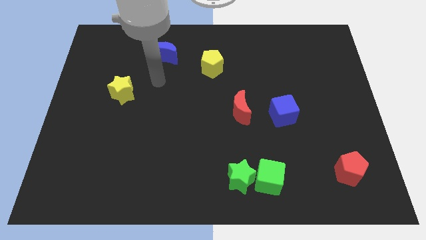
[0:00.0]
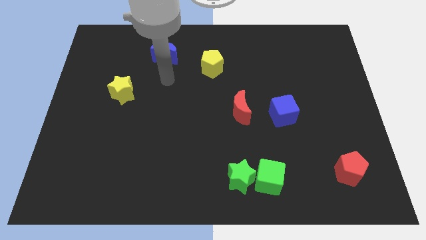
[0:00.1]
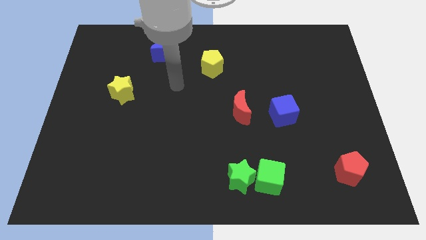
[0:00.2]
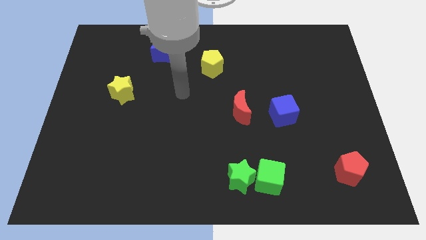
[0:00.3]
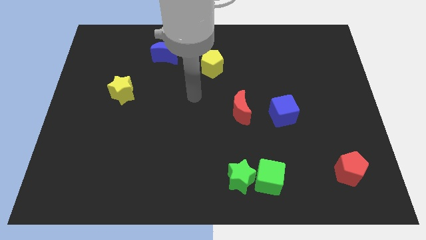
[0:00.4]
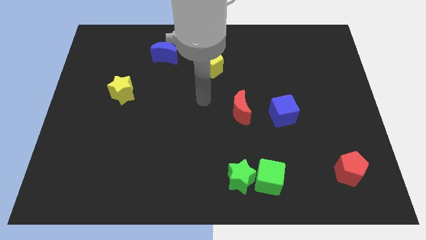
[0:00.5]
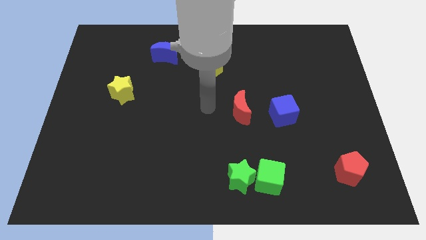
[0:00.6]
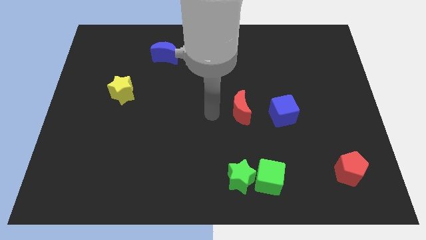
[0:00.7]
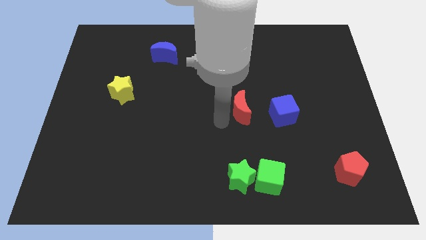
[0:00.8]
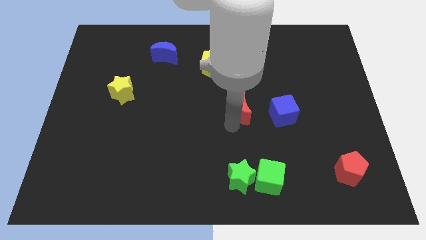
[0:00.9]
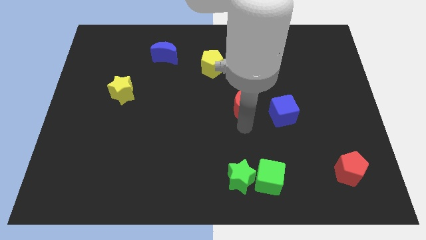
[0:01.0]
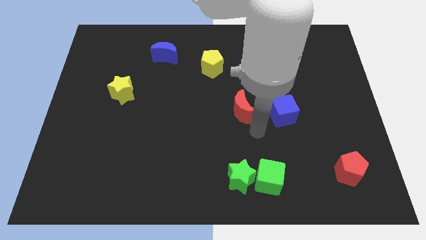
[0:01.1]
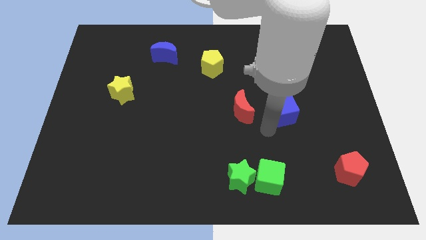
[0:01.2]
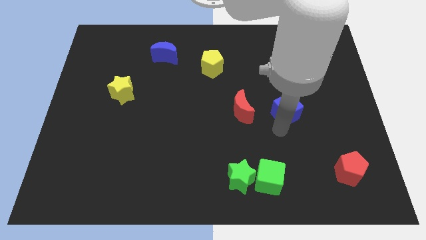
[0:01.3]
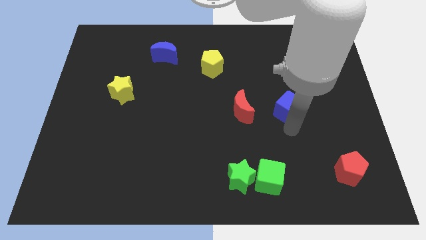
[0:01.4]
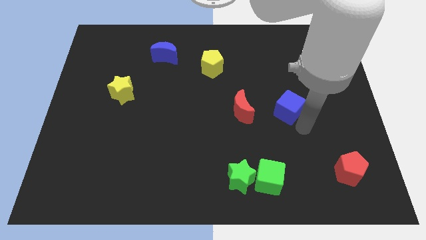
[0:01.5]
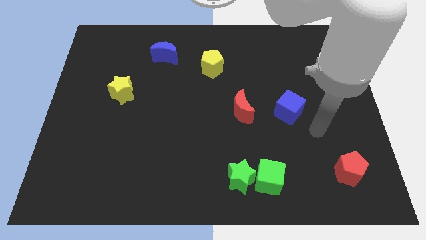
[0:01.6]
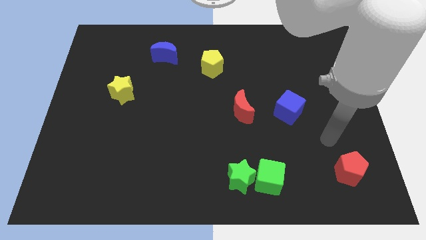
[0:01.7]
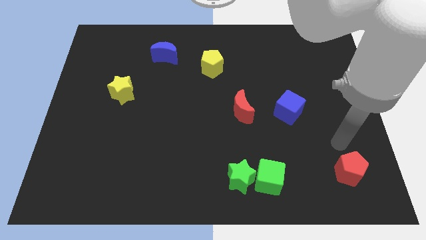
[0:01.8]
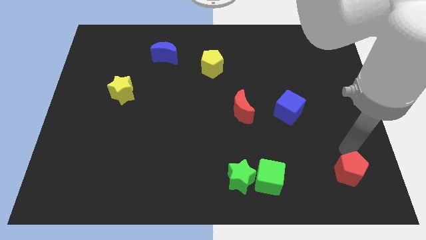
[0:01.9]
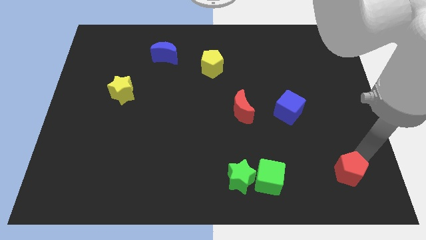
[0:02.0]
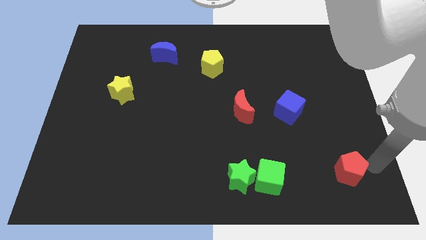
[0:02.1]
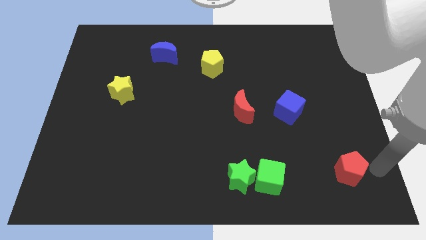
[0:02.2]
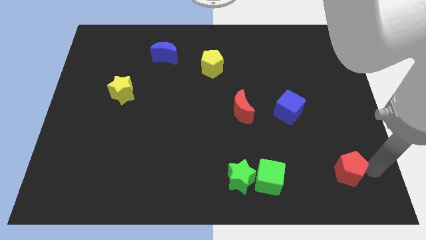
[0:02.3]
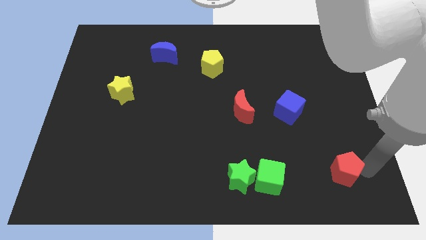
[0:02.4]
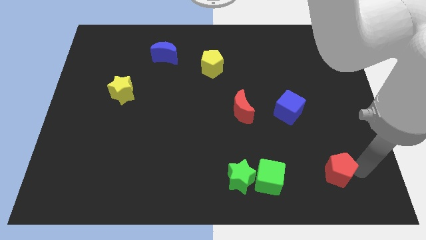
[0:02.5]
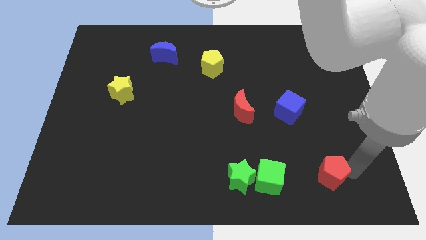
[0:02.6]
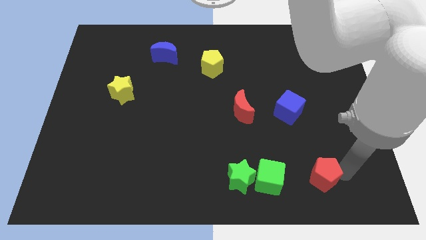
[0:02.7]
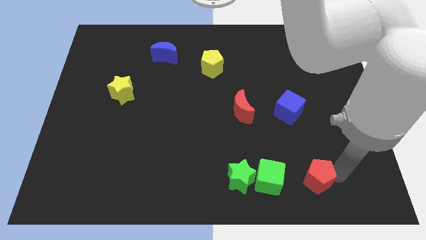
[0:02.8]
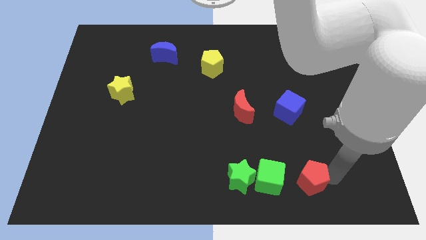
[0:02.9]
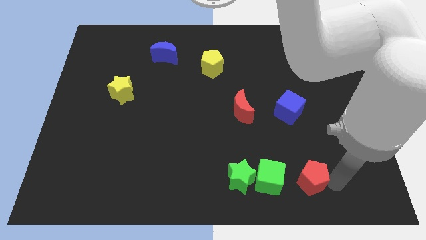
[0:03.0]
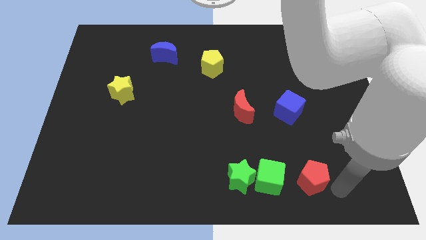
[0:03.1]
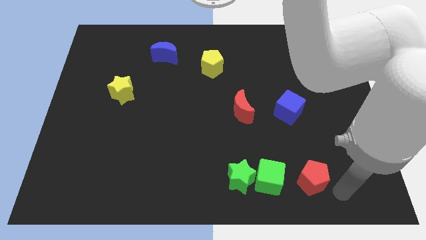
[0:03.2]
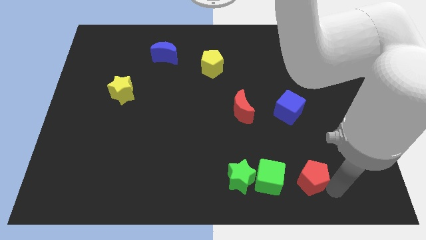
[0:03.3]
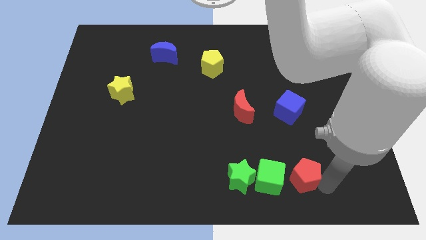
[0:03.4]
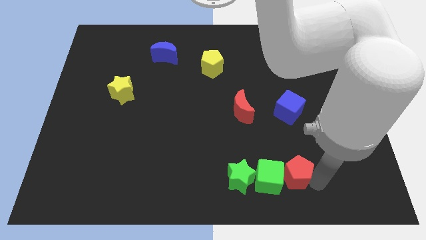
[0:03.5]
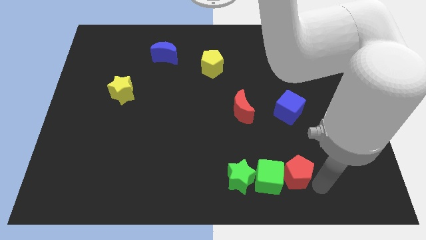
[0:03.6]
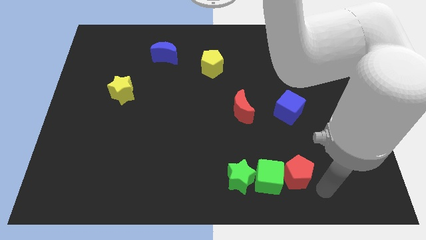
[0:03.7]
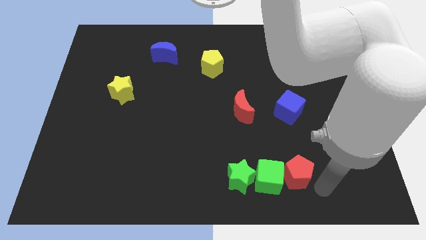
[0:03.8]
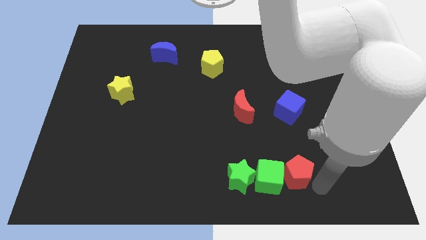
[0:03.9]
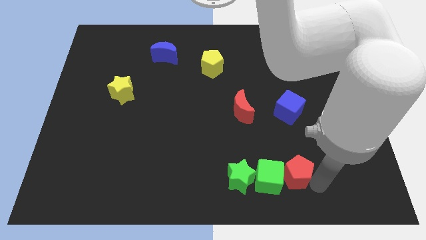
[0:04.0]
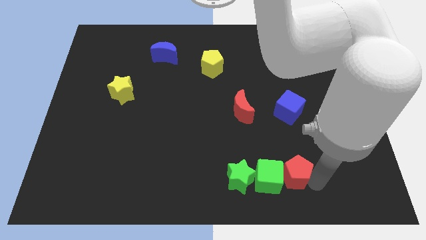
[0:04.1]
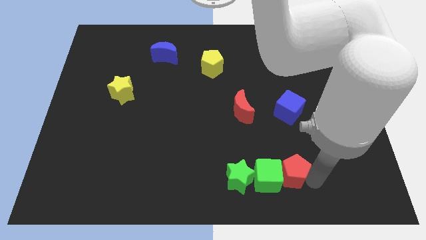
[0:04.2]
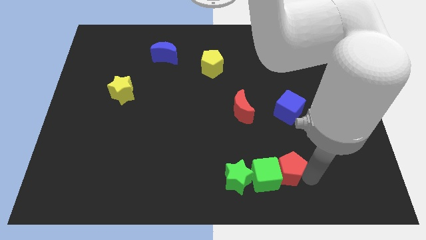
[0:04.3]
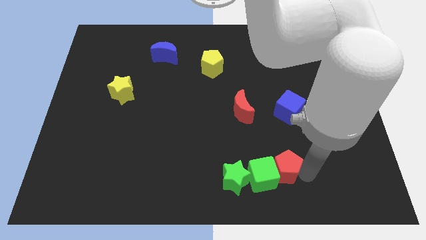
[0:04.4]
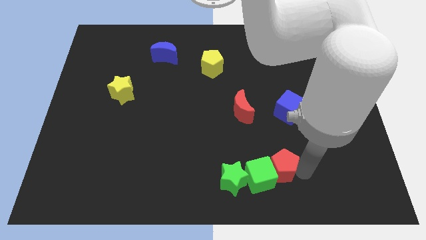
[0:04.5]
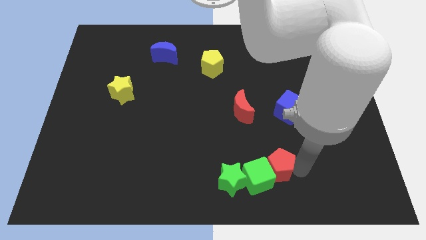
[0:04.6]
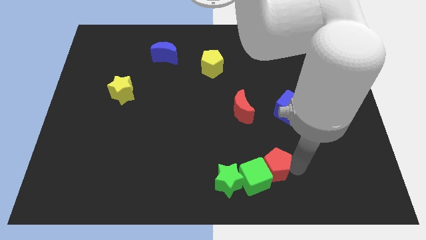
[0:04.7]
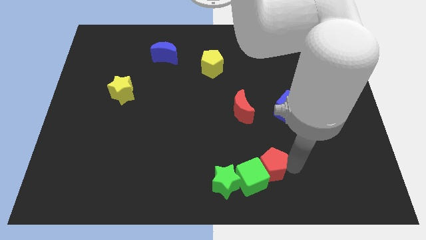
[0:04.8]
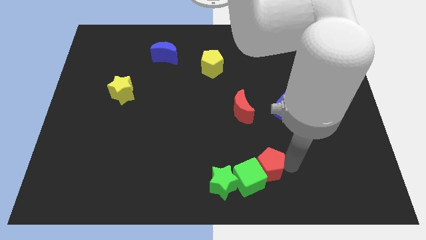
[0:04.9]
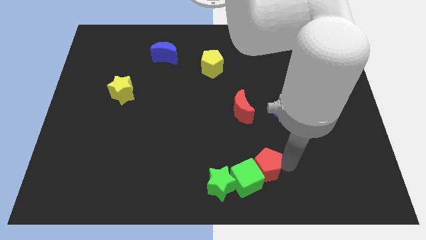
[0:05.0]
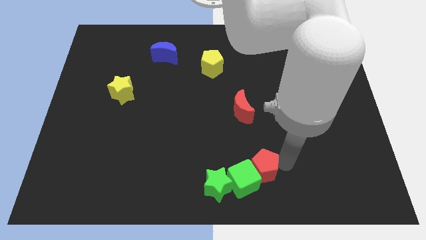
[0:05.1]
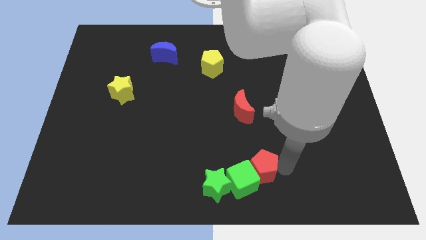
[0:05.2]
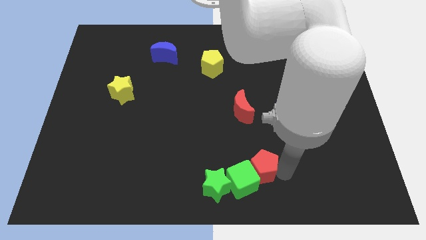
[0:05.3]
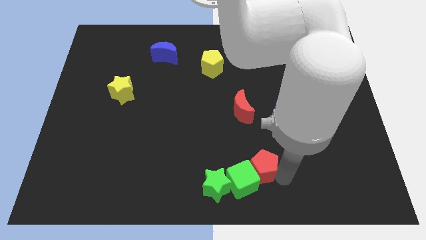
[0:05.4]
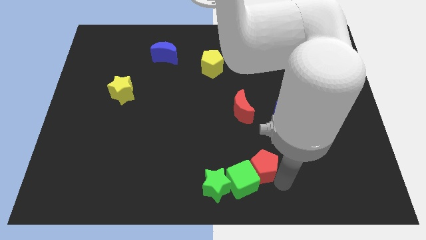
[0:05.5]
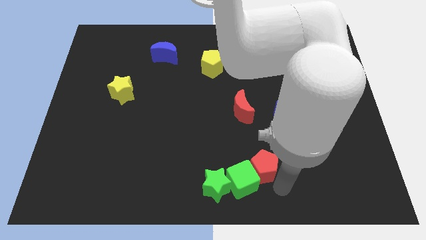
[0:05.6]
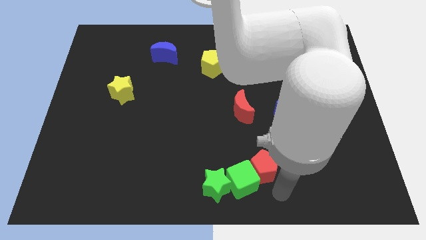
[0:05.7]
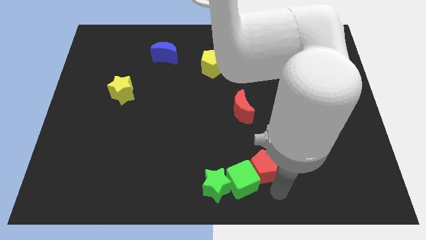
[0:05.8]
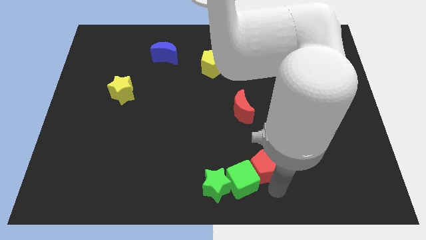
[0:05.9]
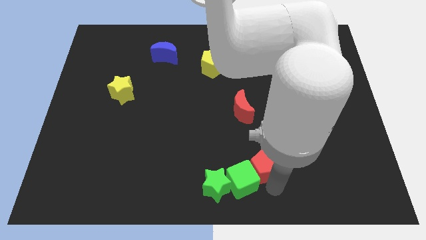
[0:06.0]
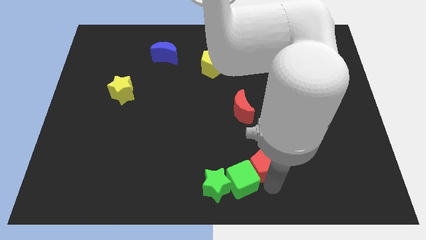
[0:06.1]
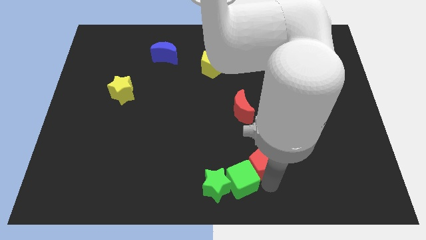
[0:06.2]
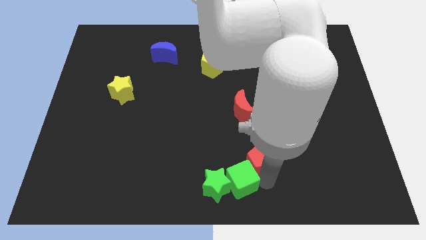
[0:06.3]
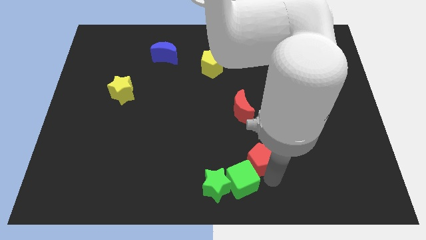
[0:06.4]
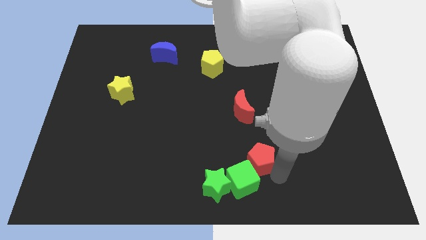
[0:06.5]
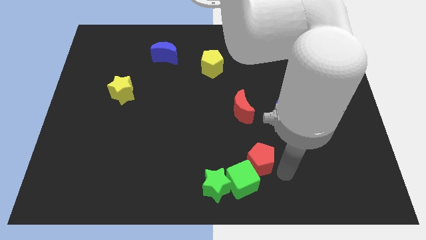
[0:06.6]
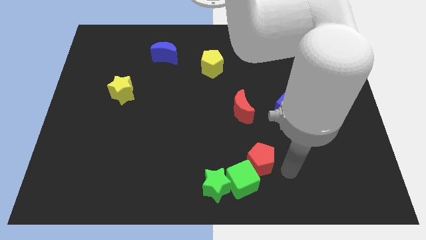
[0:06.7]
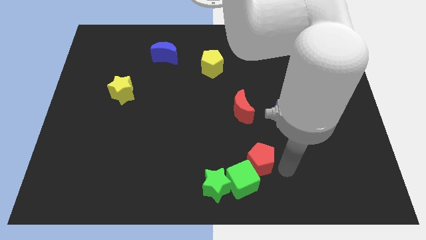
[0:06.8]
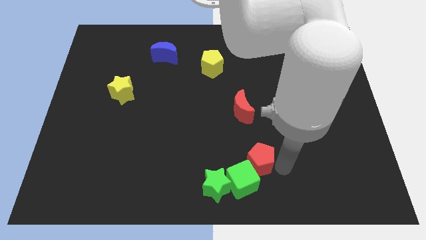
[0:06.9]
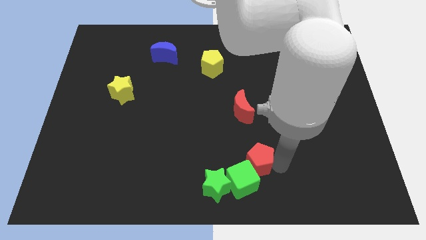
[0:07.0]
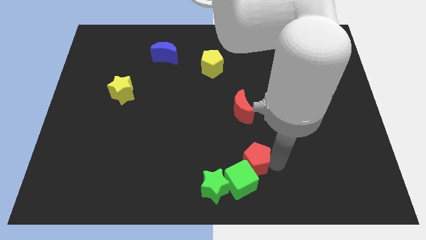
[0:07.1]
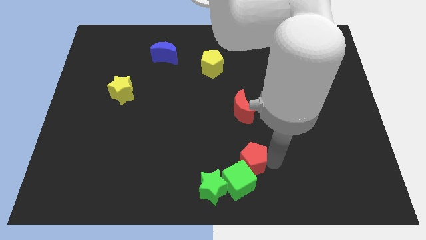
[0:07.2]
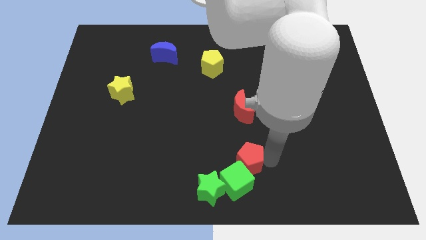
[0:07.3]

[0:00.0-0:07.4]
slide the red pentagon left

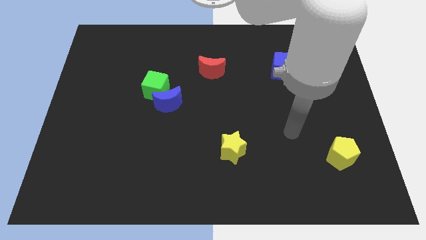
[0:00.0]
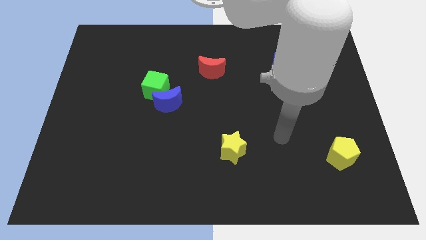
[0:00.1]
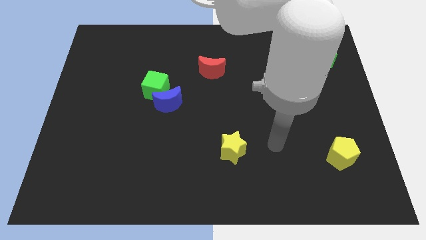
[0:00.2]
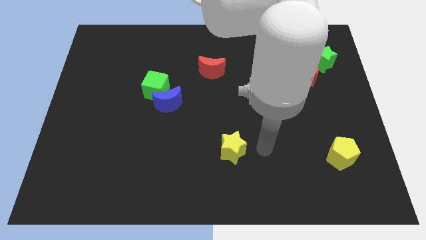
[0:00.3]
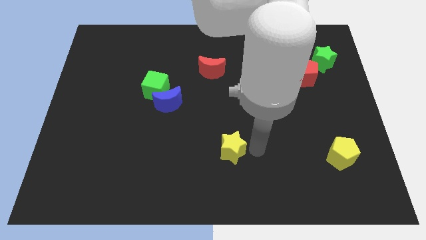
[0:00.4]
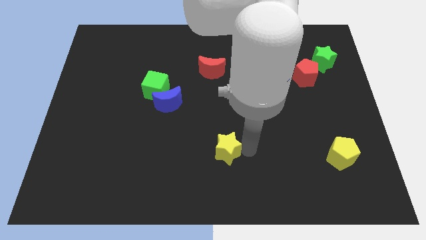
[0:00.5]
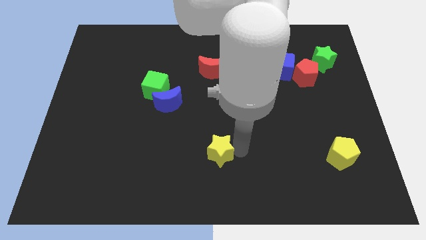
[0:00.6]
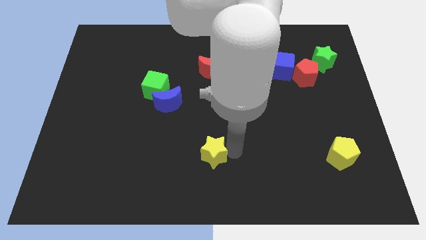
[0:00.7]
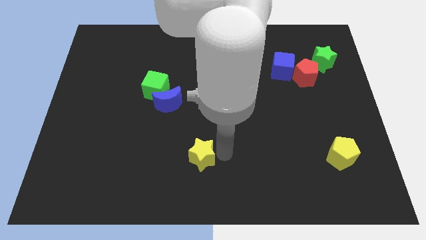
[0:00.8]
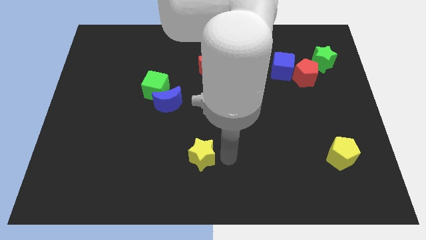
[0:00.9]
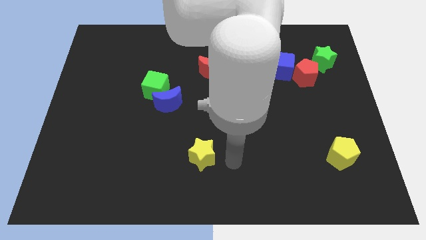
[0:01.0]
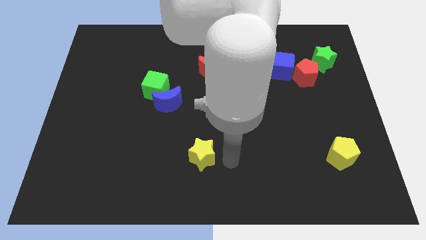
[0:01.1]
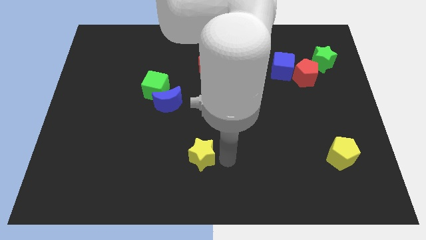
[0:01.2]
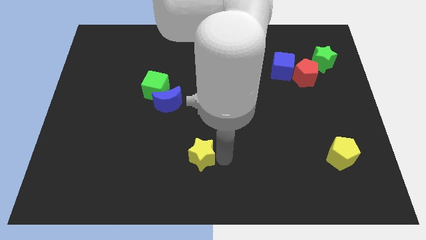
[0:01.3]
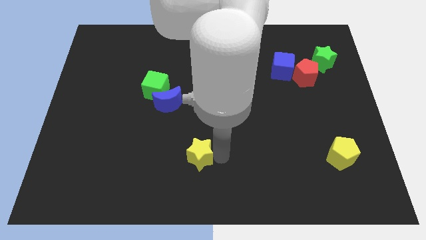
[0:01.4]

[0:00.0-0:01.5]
slide the yellow star a bit left
